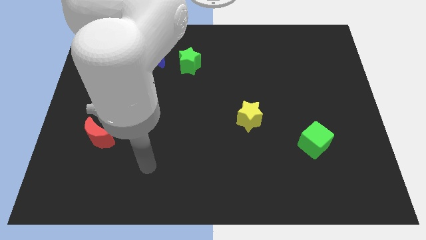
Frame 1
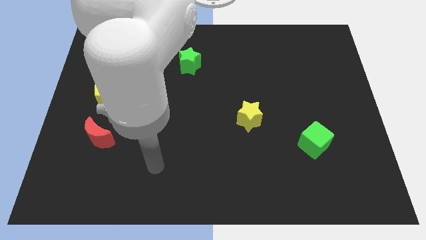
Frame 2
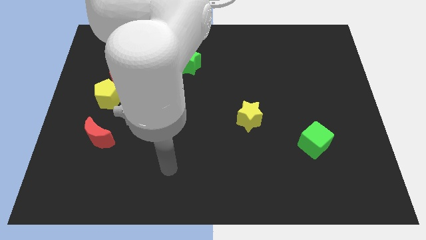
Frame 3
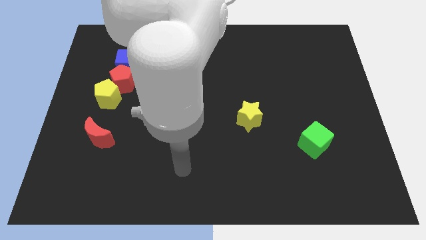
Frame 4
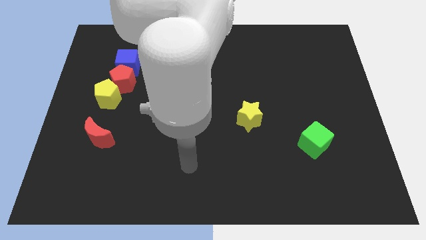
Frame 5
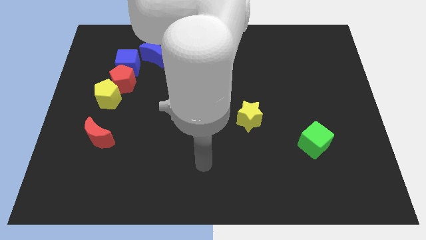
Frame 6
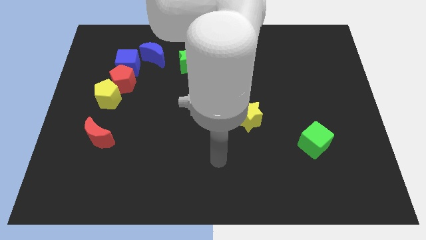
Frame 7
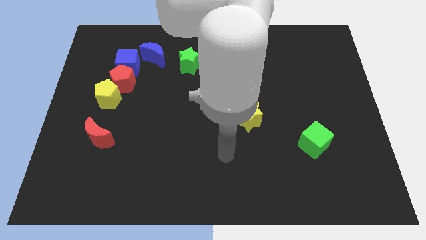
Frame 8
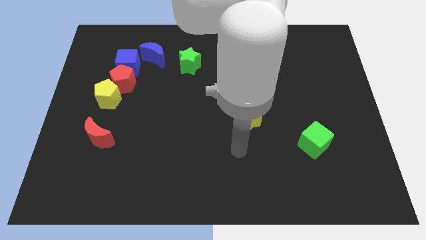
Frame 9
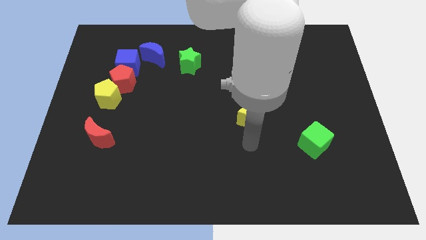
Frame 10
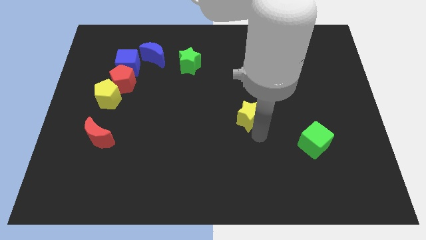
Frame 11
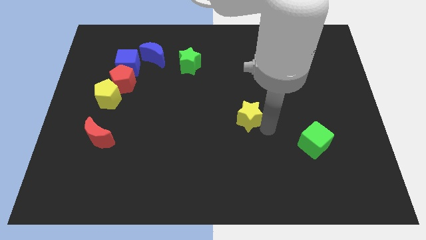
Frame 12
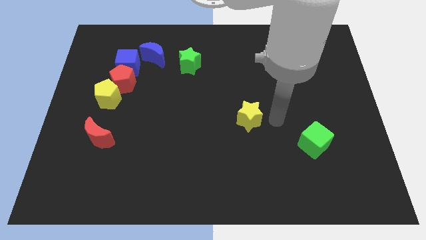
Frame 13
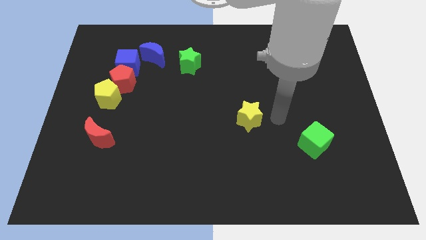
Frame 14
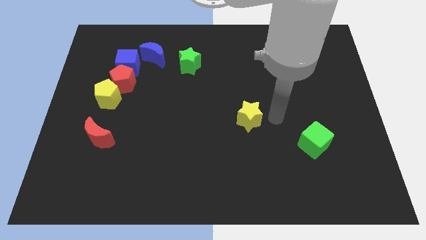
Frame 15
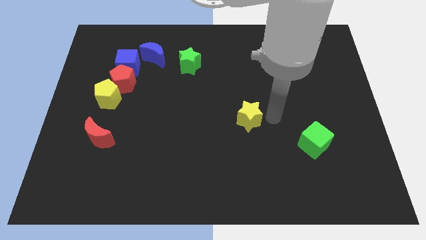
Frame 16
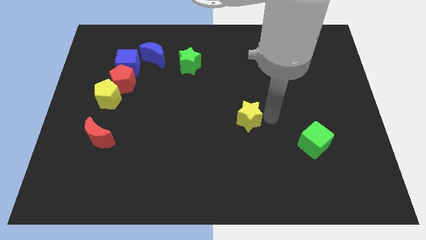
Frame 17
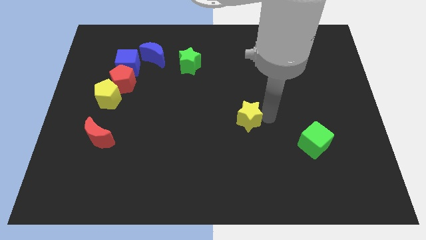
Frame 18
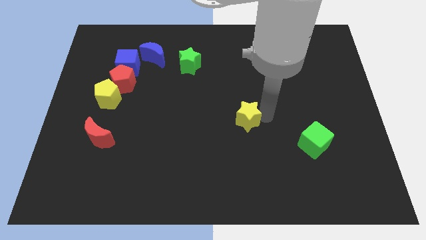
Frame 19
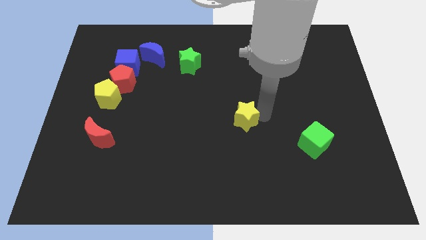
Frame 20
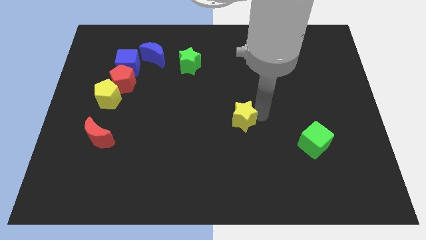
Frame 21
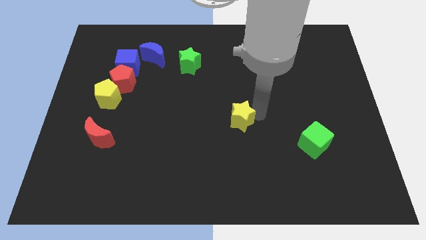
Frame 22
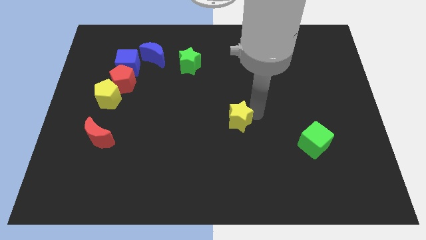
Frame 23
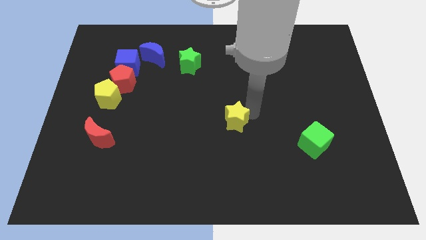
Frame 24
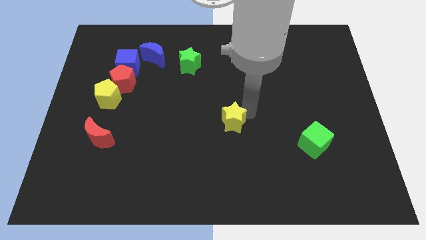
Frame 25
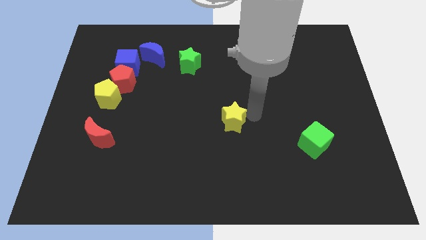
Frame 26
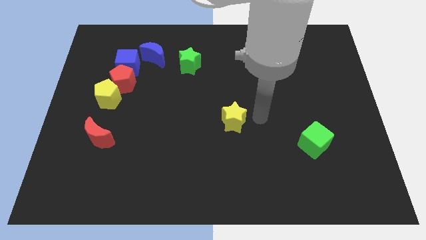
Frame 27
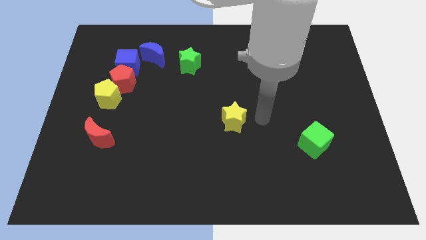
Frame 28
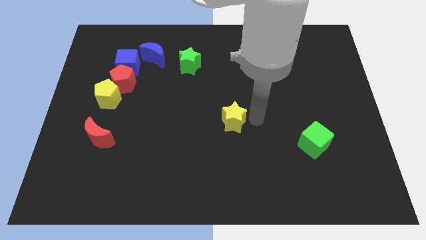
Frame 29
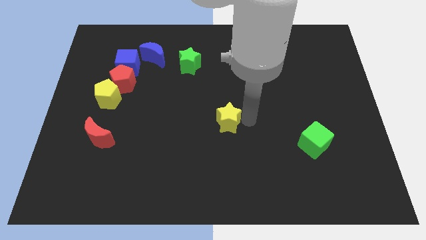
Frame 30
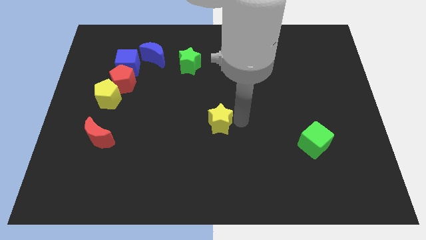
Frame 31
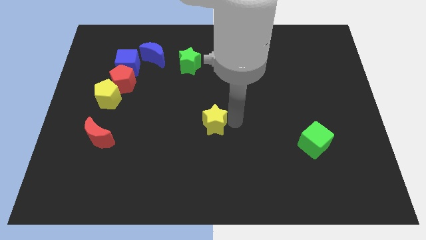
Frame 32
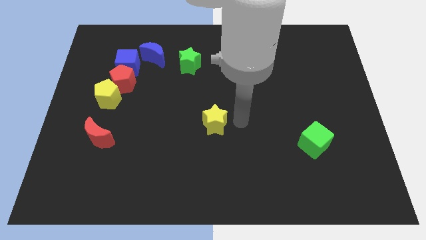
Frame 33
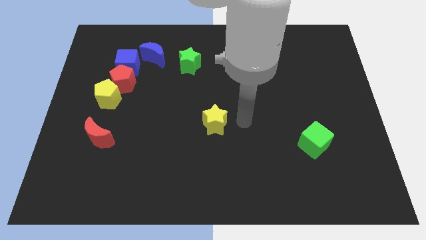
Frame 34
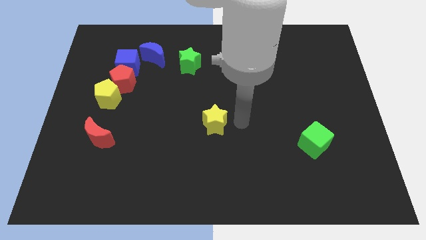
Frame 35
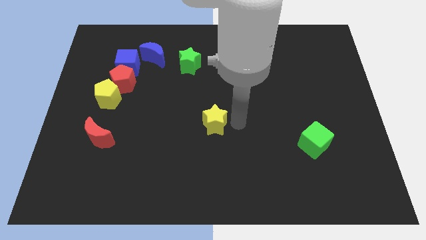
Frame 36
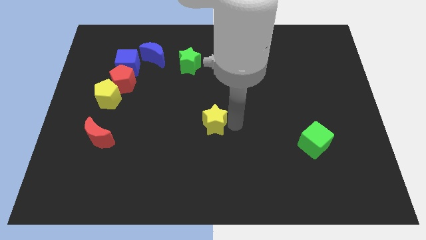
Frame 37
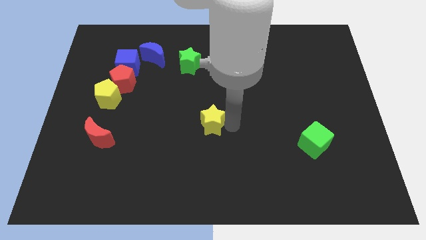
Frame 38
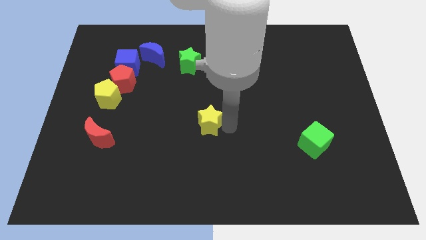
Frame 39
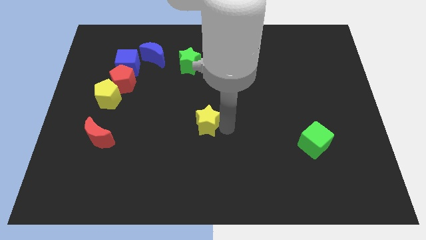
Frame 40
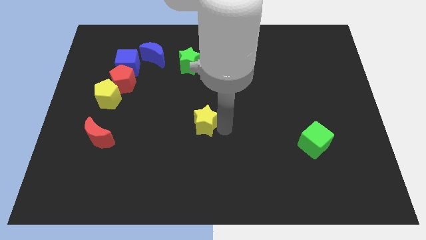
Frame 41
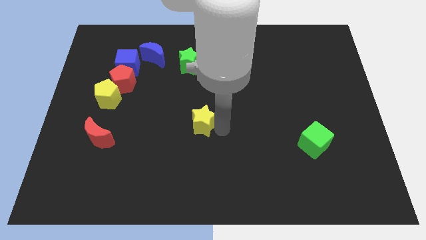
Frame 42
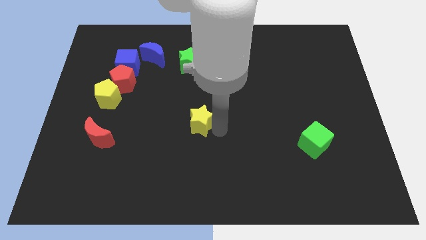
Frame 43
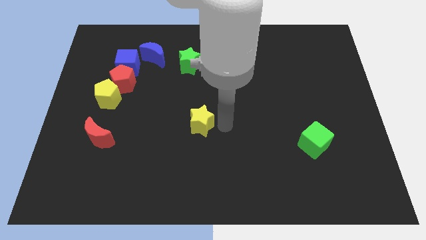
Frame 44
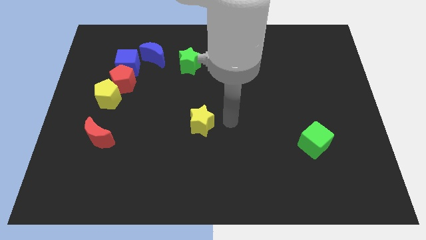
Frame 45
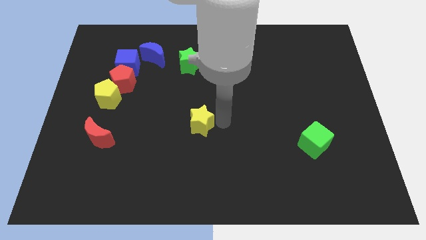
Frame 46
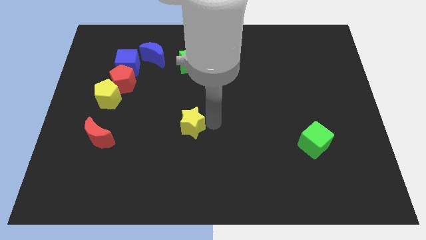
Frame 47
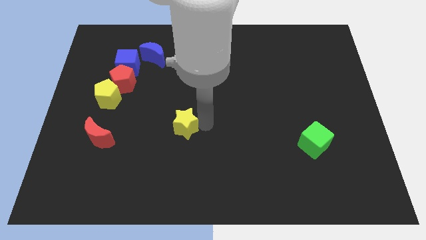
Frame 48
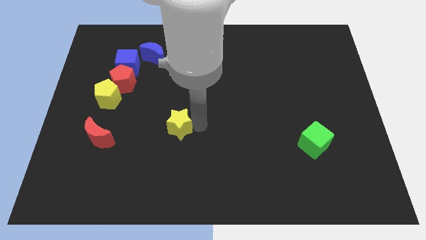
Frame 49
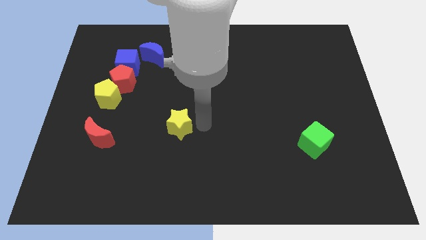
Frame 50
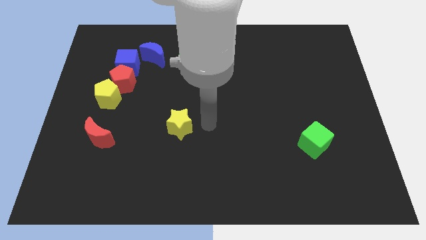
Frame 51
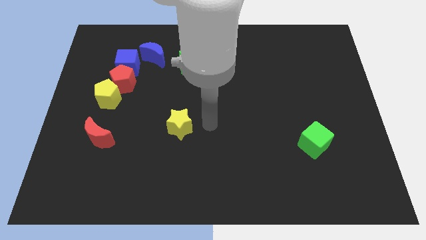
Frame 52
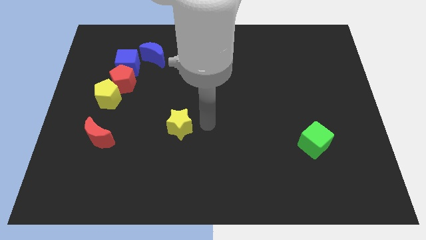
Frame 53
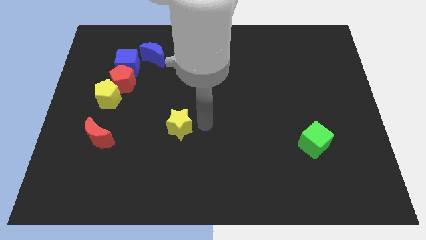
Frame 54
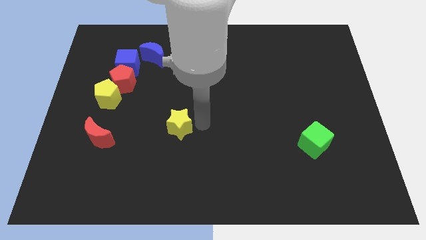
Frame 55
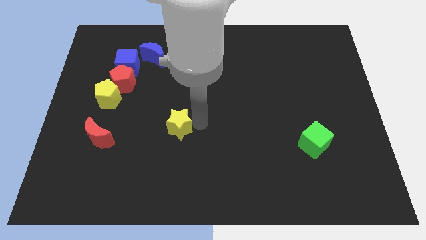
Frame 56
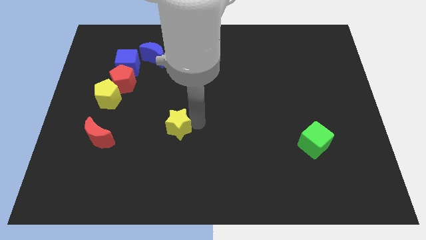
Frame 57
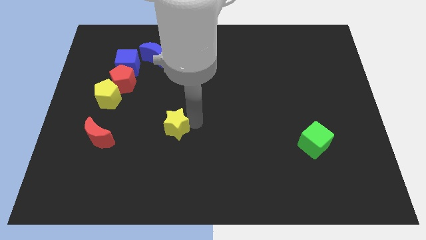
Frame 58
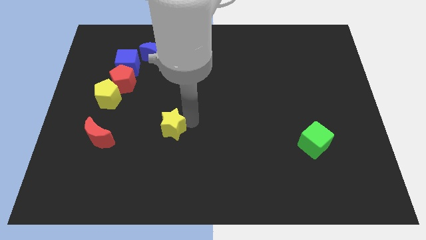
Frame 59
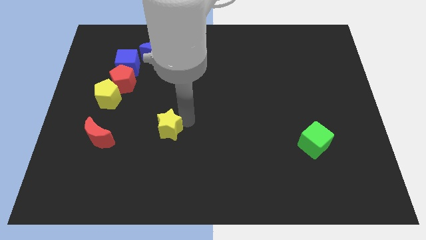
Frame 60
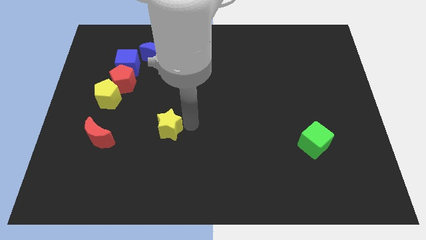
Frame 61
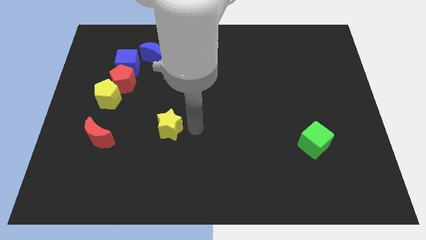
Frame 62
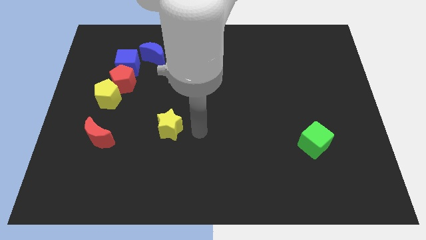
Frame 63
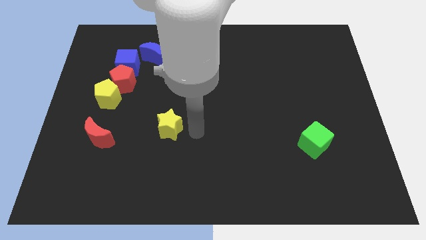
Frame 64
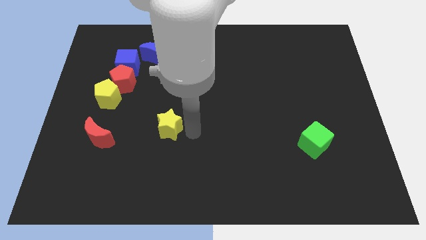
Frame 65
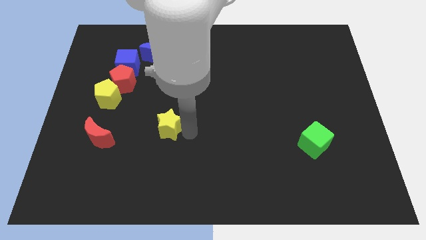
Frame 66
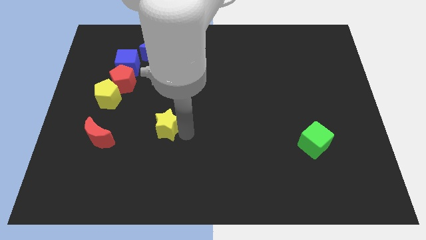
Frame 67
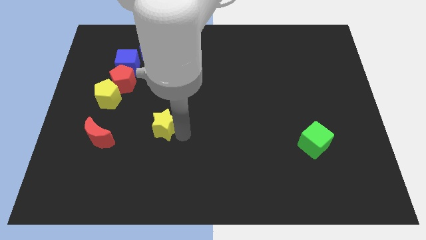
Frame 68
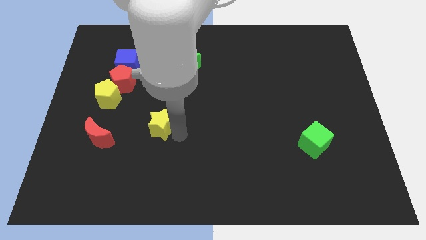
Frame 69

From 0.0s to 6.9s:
slide the yellow star to the left

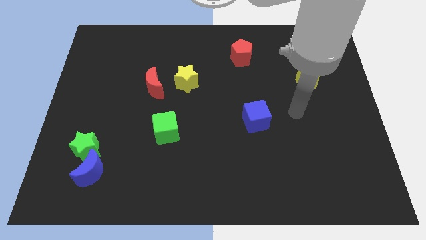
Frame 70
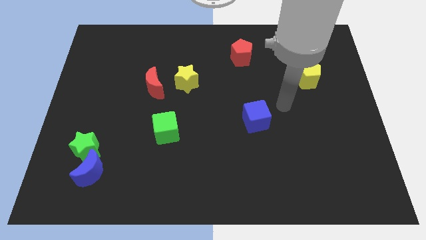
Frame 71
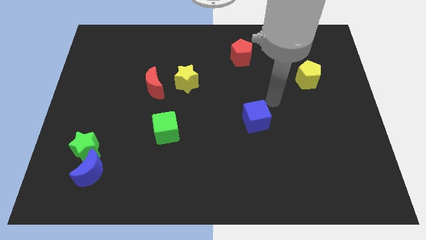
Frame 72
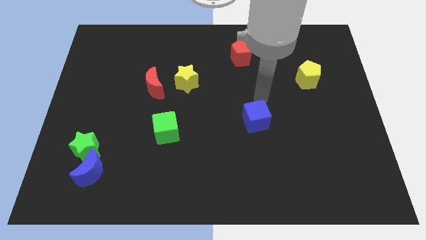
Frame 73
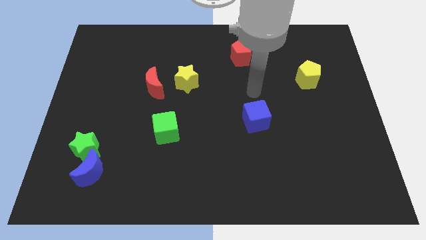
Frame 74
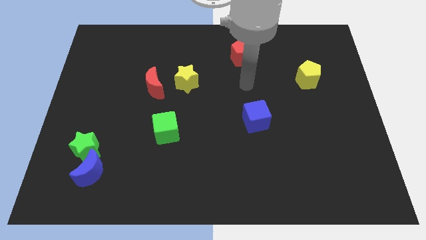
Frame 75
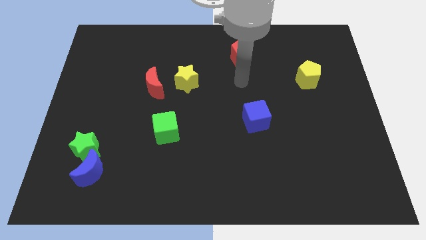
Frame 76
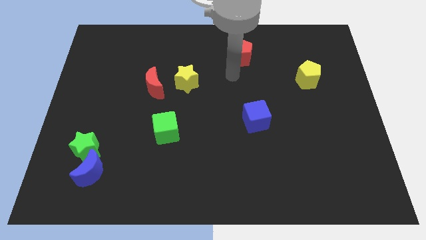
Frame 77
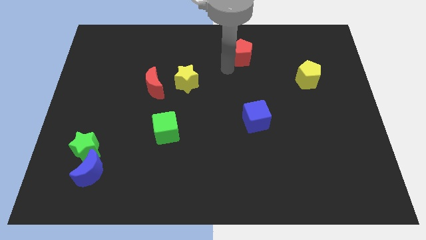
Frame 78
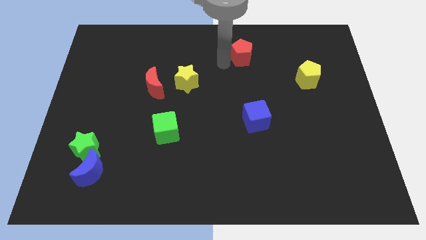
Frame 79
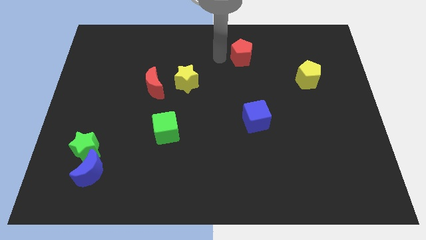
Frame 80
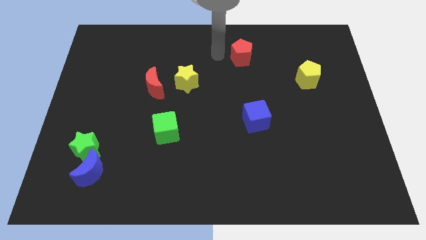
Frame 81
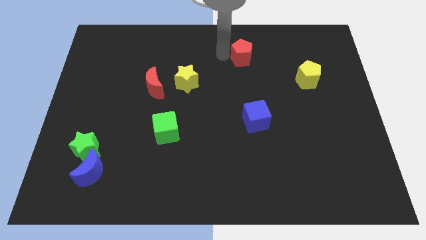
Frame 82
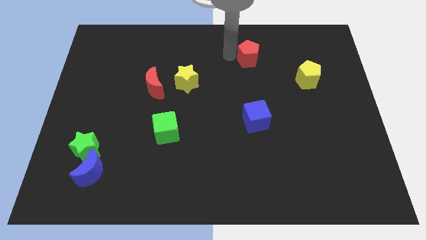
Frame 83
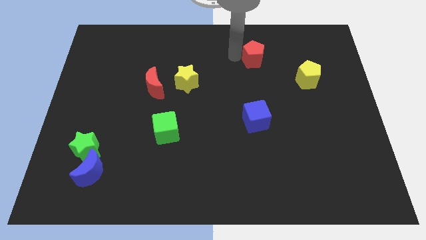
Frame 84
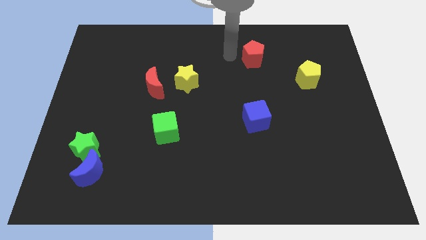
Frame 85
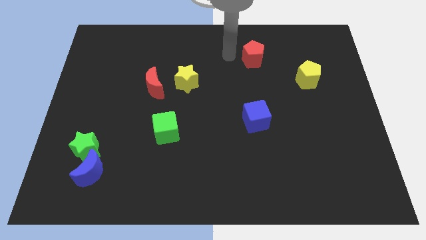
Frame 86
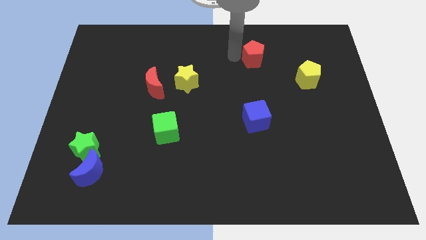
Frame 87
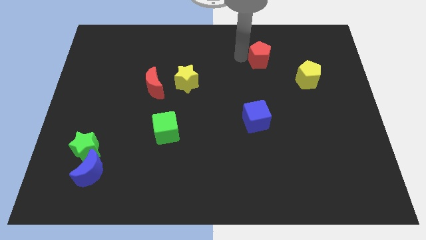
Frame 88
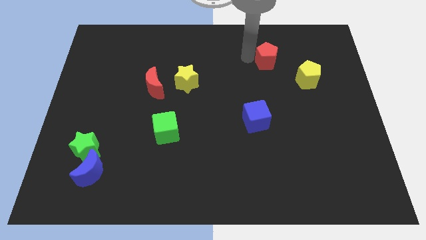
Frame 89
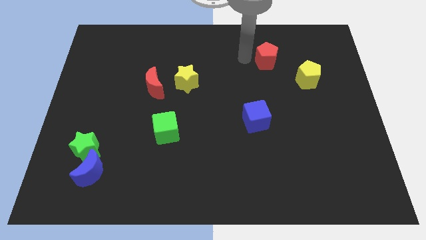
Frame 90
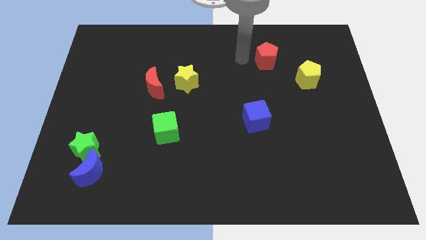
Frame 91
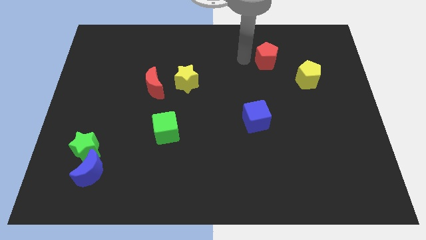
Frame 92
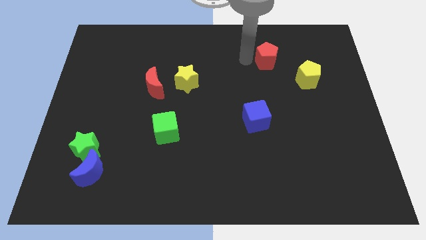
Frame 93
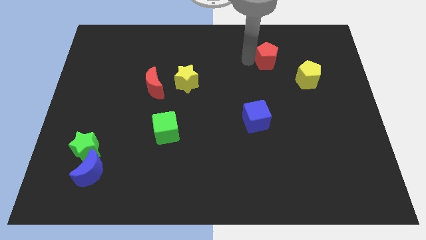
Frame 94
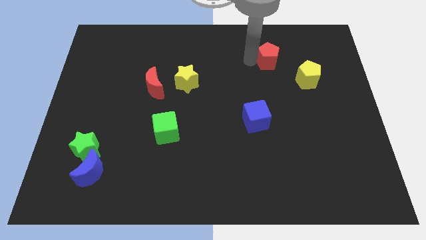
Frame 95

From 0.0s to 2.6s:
slightly move the red pentagon to the right
